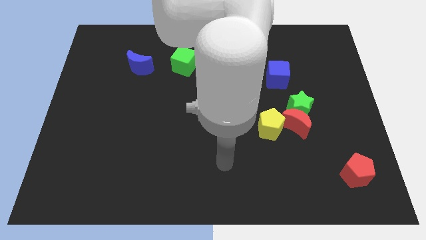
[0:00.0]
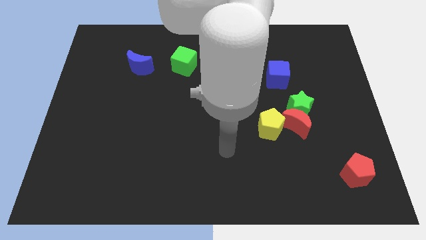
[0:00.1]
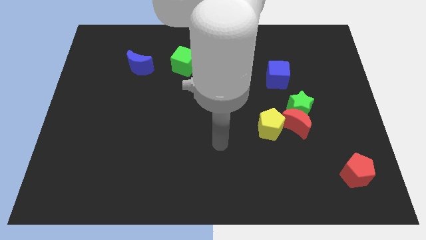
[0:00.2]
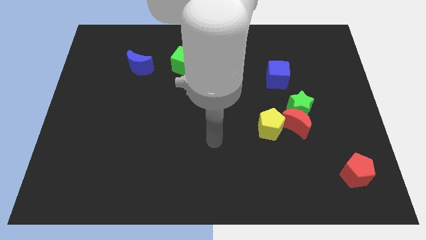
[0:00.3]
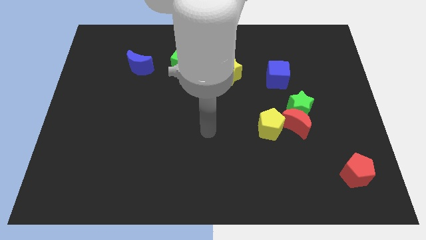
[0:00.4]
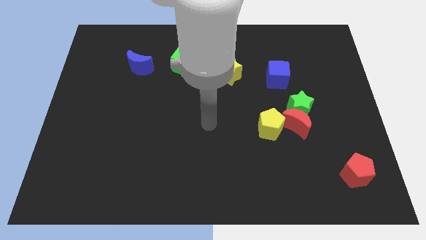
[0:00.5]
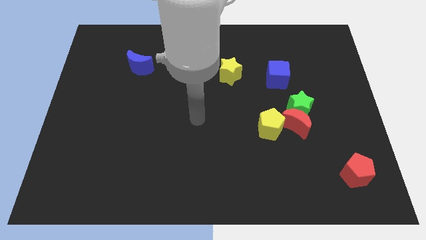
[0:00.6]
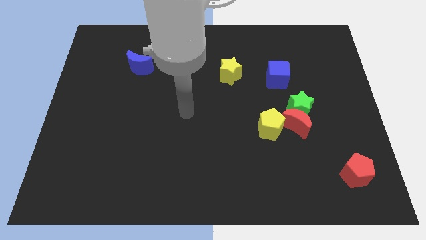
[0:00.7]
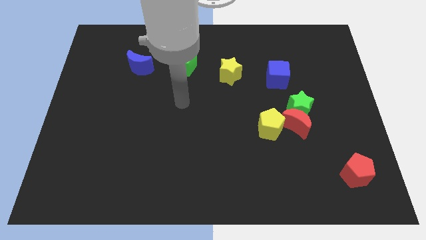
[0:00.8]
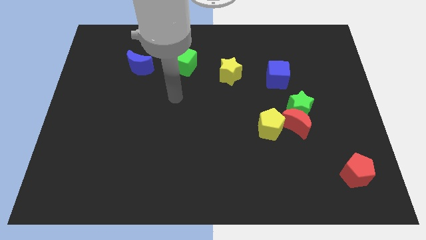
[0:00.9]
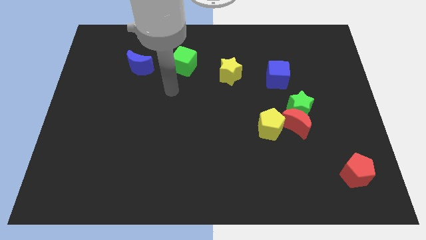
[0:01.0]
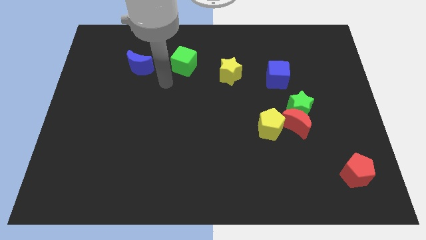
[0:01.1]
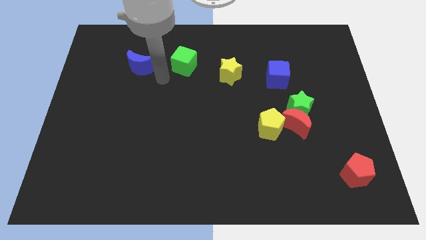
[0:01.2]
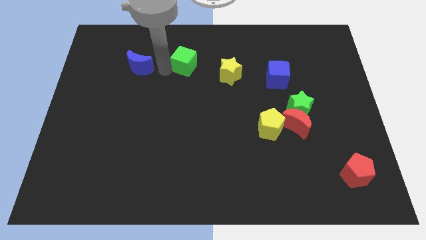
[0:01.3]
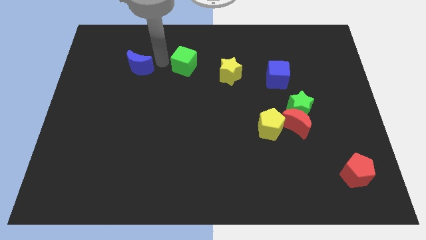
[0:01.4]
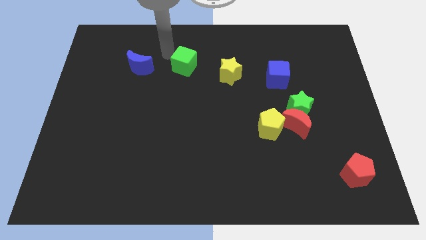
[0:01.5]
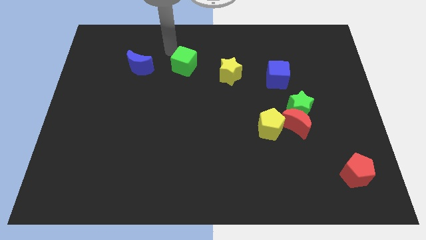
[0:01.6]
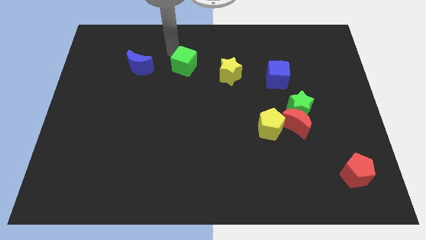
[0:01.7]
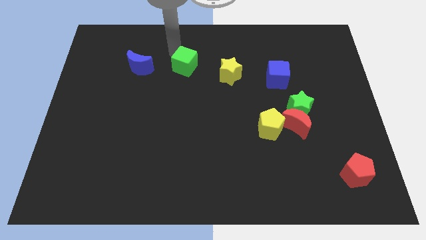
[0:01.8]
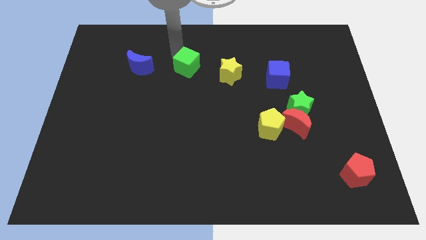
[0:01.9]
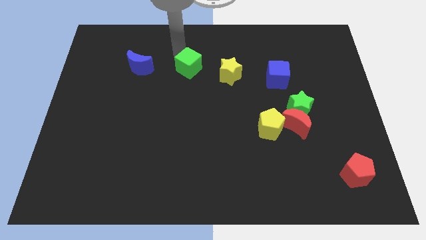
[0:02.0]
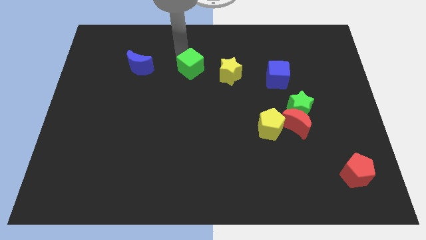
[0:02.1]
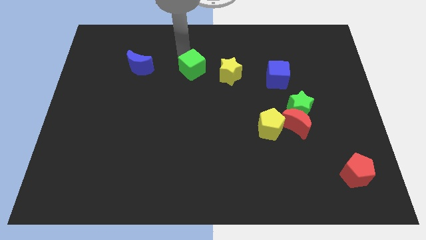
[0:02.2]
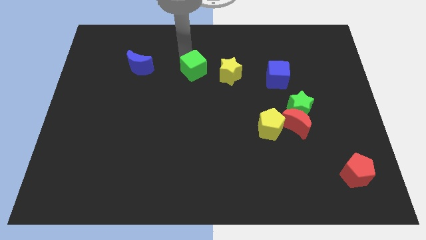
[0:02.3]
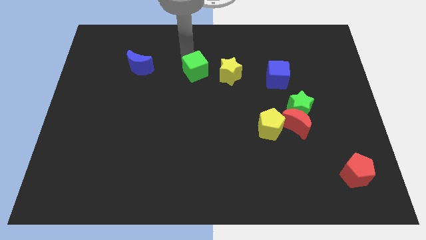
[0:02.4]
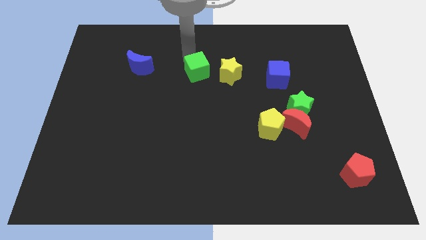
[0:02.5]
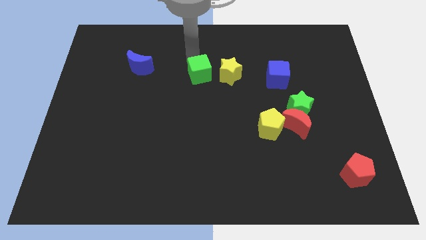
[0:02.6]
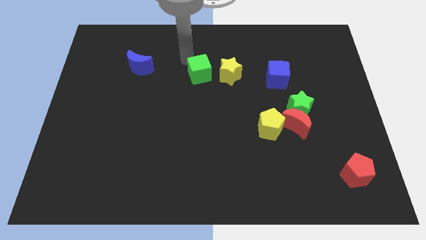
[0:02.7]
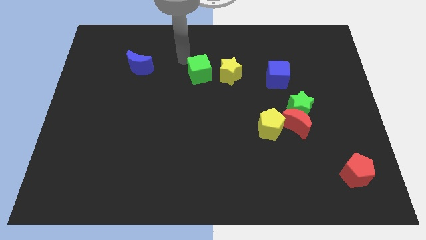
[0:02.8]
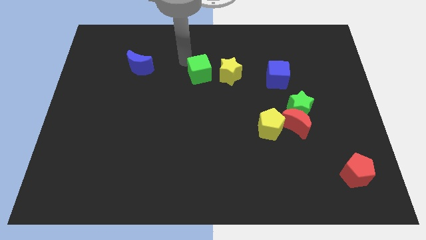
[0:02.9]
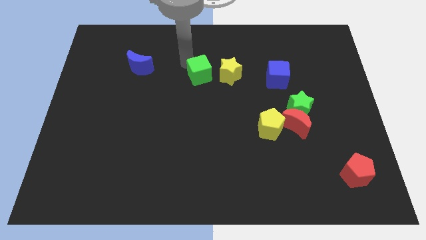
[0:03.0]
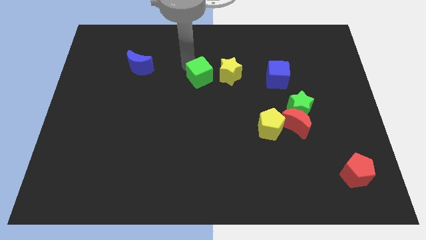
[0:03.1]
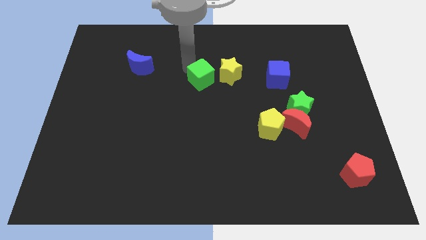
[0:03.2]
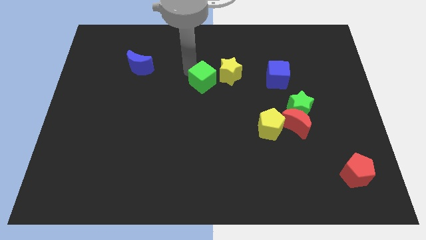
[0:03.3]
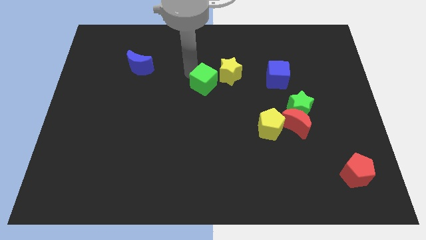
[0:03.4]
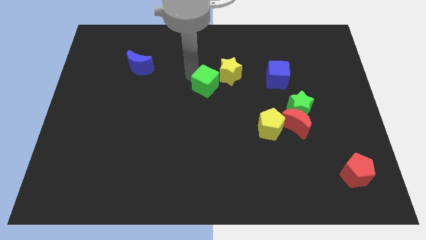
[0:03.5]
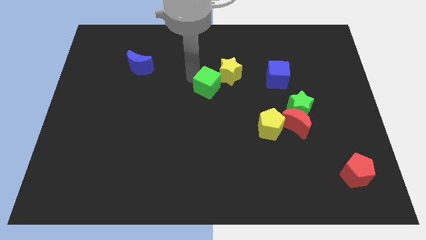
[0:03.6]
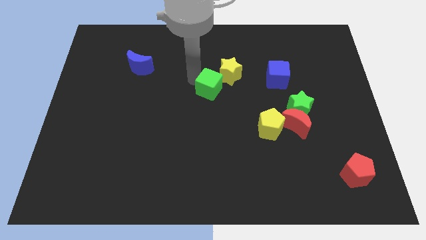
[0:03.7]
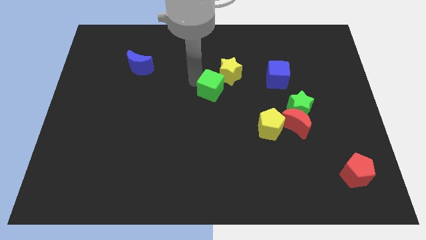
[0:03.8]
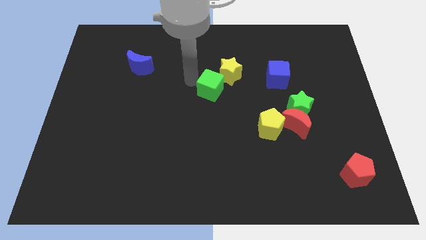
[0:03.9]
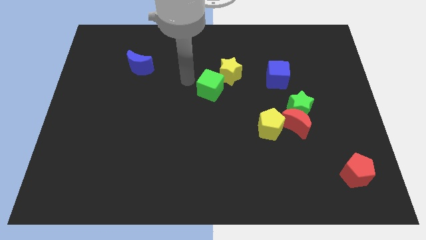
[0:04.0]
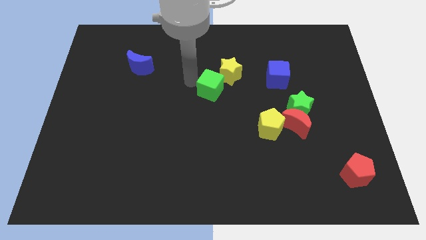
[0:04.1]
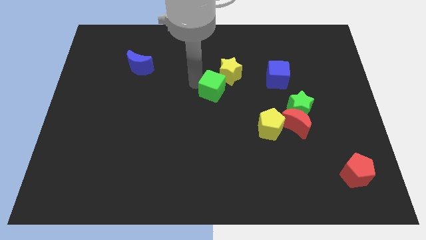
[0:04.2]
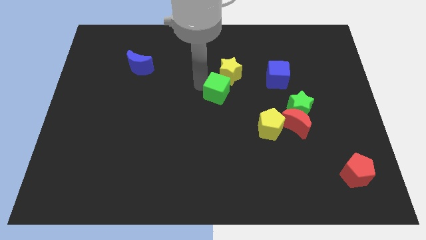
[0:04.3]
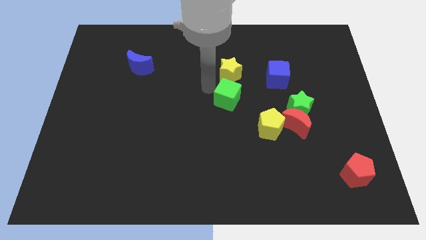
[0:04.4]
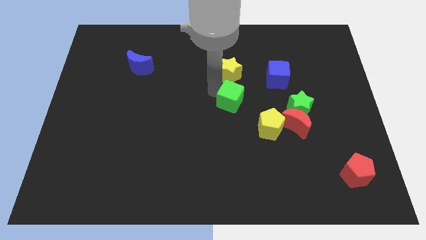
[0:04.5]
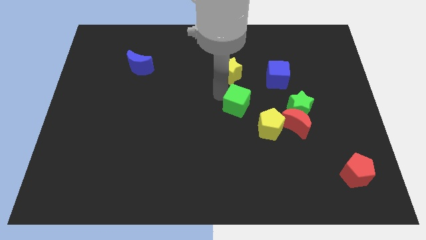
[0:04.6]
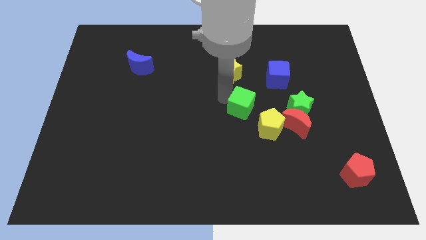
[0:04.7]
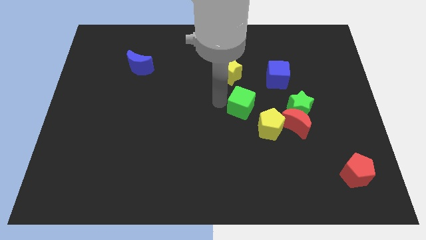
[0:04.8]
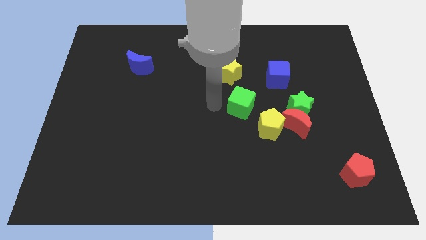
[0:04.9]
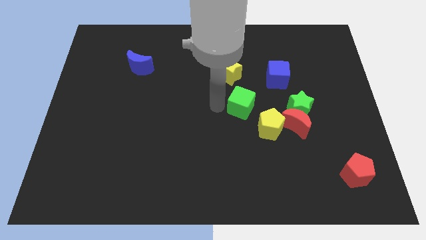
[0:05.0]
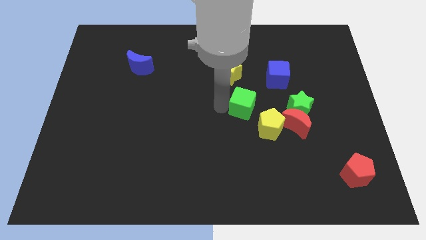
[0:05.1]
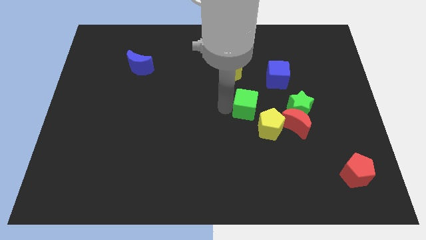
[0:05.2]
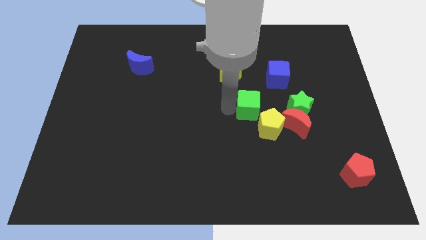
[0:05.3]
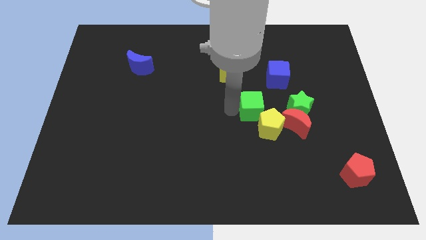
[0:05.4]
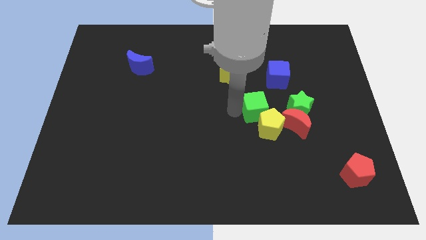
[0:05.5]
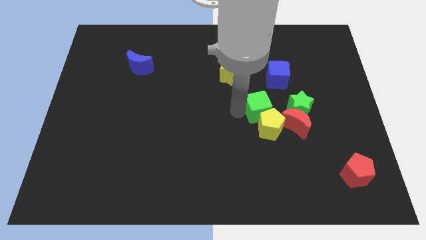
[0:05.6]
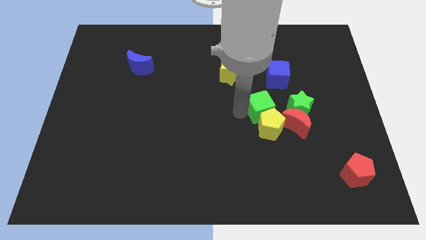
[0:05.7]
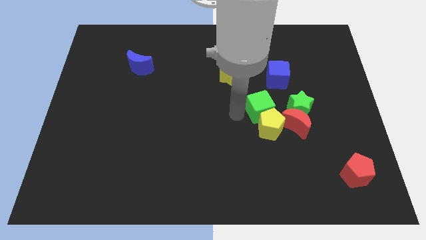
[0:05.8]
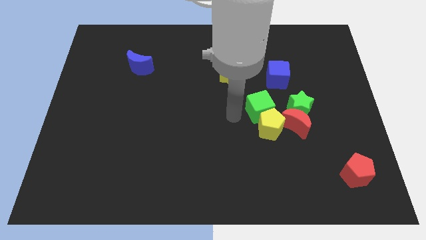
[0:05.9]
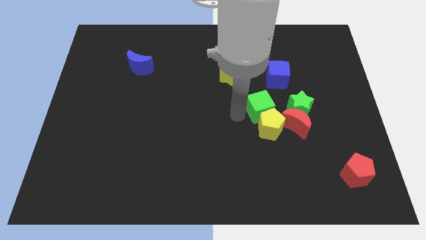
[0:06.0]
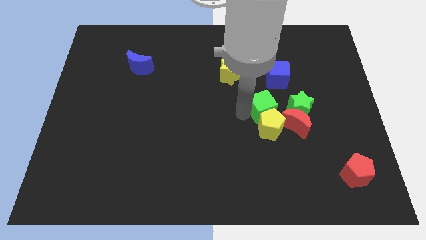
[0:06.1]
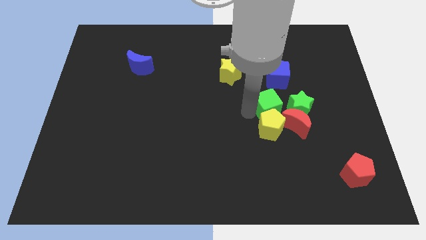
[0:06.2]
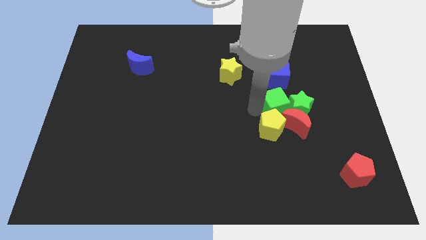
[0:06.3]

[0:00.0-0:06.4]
push the green cube next to the green star

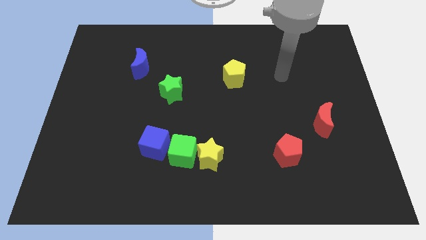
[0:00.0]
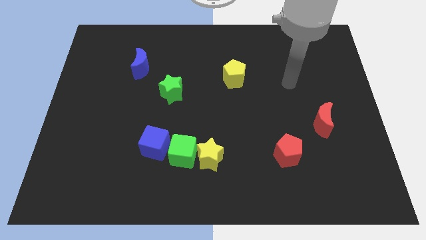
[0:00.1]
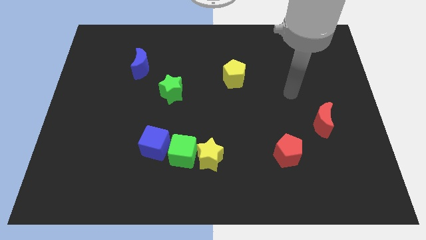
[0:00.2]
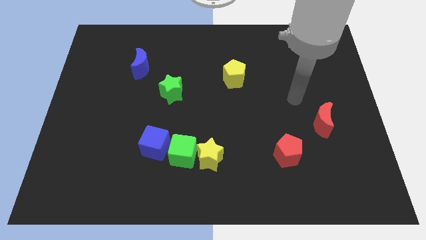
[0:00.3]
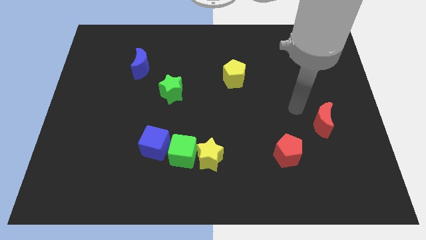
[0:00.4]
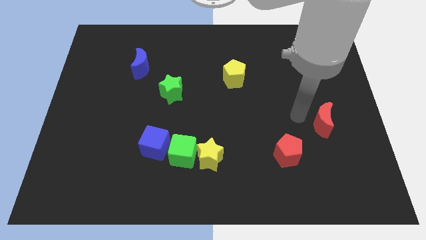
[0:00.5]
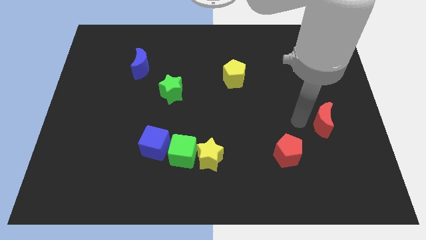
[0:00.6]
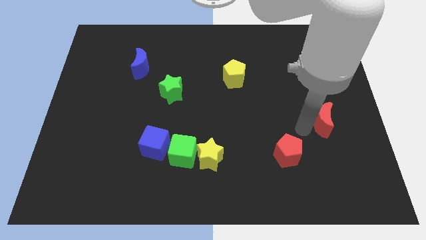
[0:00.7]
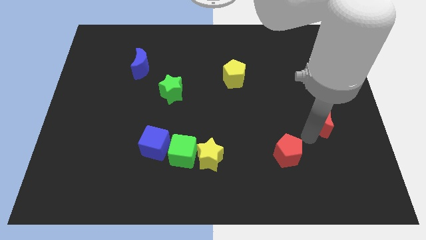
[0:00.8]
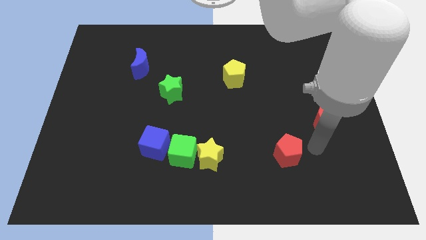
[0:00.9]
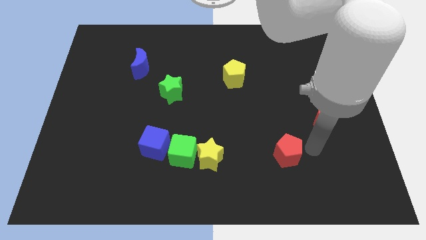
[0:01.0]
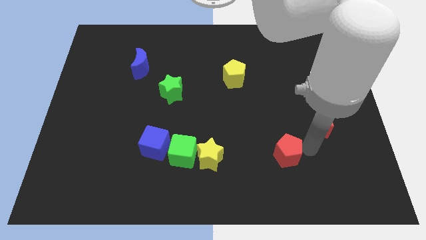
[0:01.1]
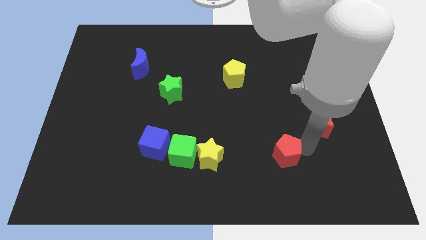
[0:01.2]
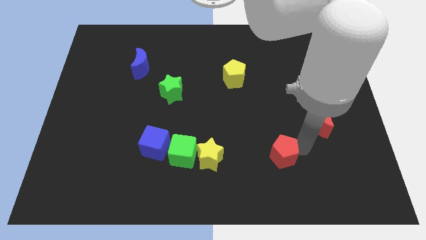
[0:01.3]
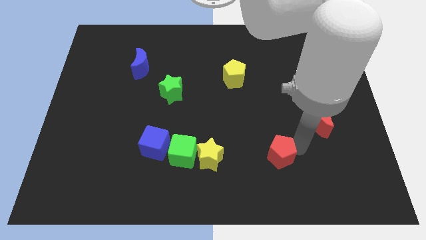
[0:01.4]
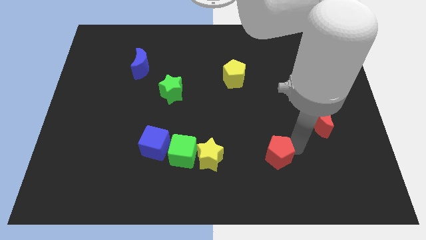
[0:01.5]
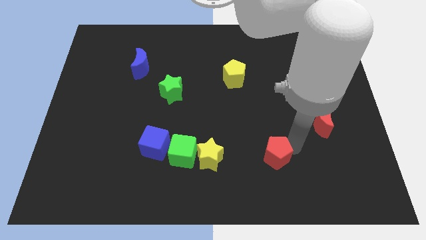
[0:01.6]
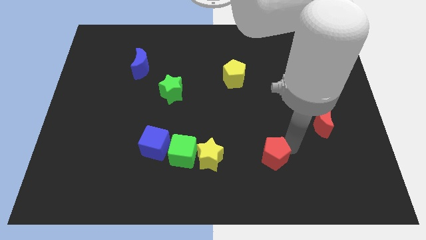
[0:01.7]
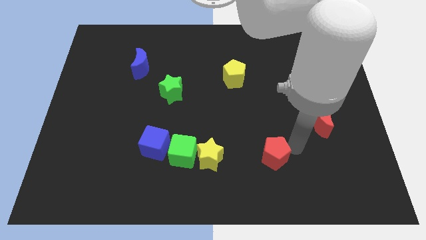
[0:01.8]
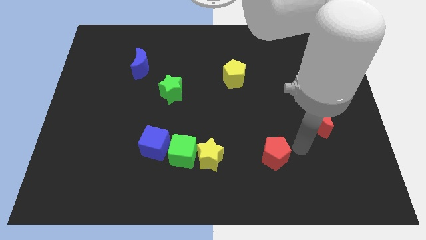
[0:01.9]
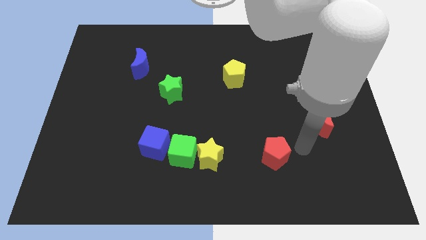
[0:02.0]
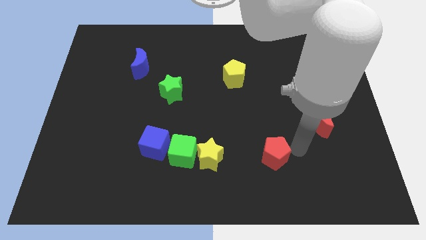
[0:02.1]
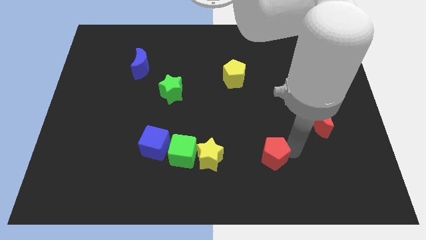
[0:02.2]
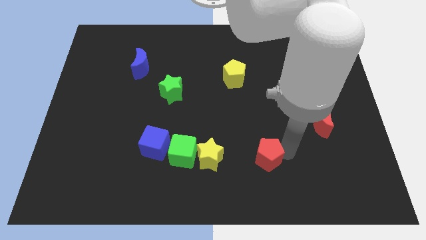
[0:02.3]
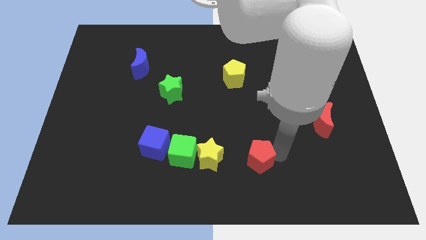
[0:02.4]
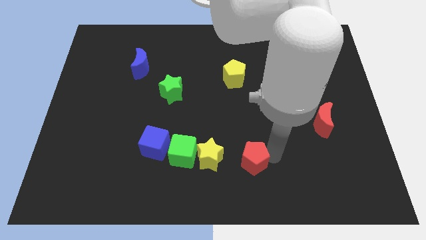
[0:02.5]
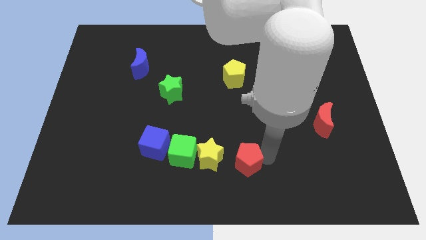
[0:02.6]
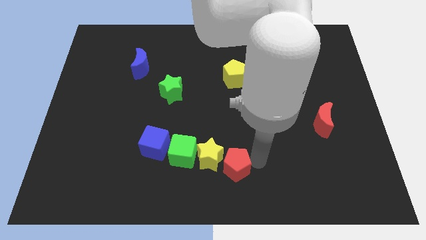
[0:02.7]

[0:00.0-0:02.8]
push the red pentagon towards the yellow star
